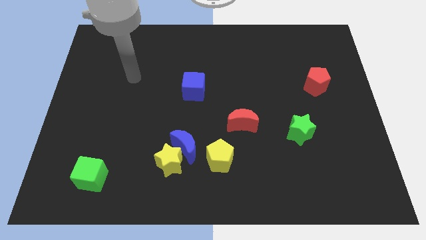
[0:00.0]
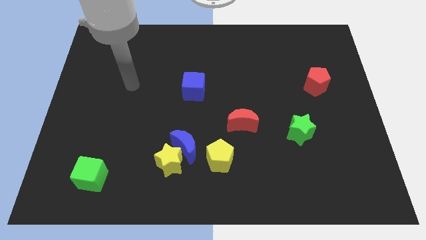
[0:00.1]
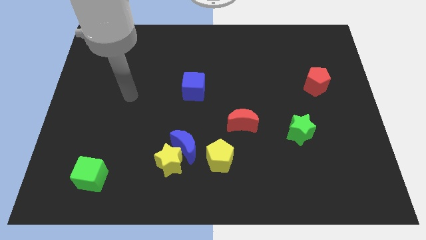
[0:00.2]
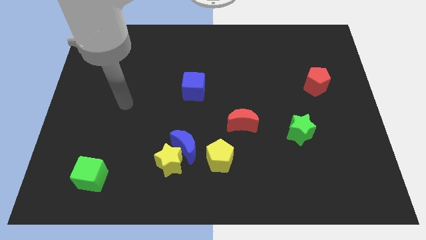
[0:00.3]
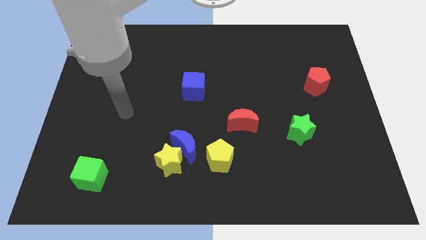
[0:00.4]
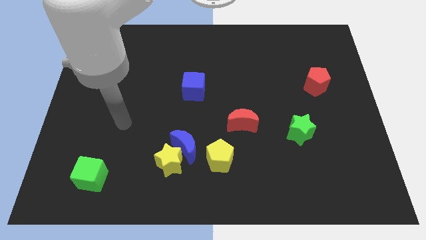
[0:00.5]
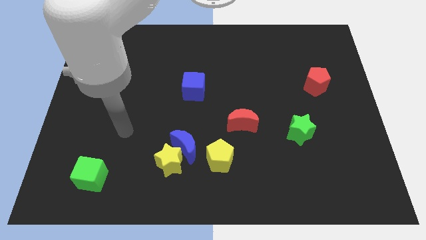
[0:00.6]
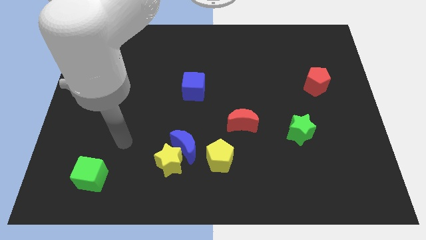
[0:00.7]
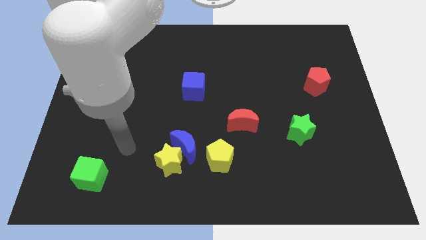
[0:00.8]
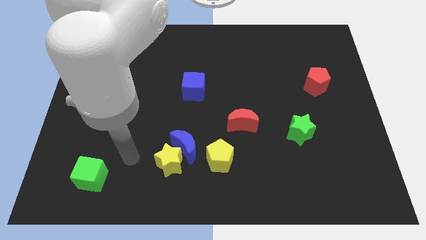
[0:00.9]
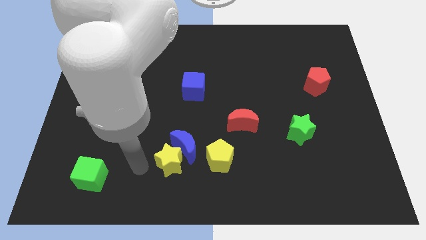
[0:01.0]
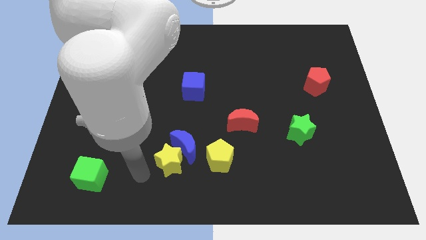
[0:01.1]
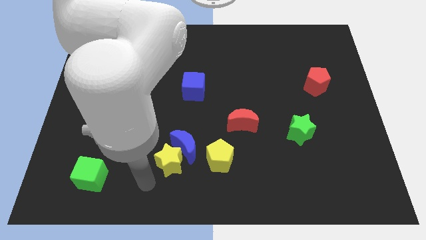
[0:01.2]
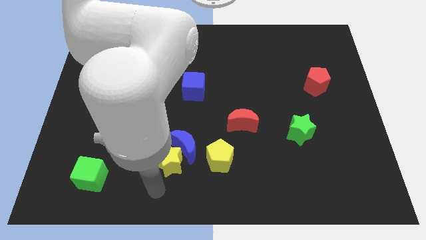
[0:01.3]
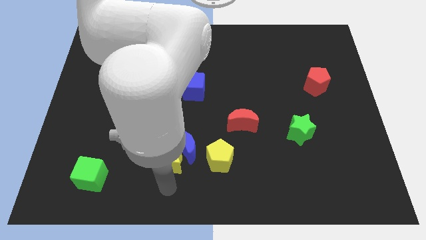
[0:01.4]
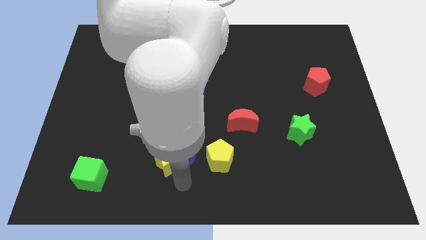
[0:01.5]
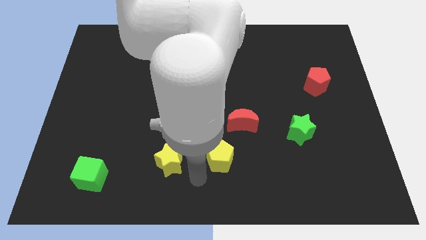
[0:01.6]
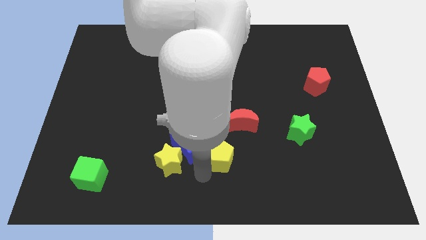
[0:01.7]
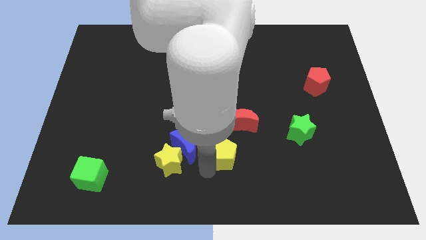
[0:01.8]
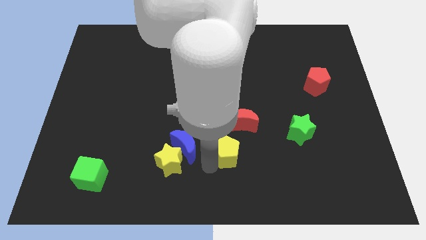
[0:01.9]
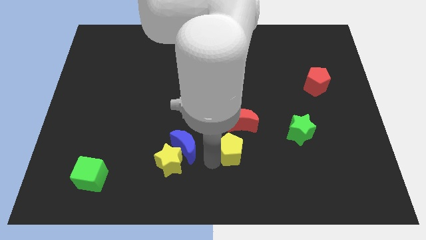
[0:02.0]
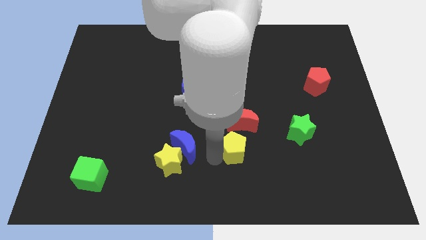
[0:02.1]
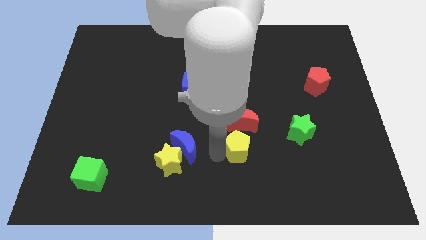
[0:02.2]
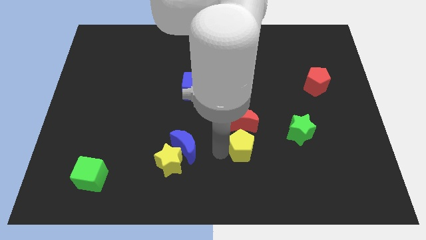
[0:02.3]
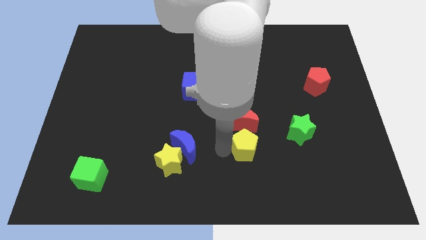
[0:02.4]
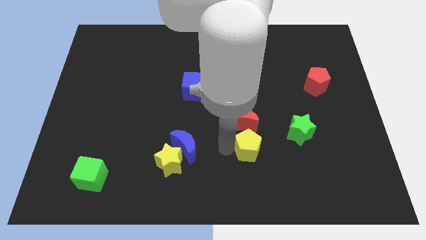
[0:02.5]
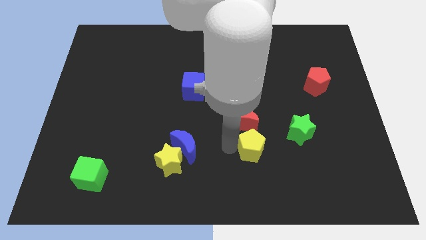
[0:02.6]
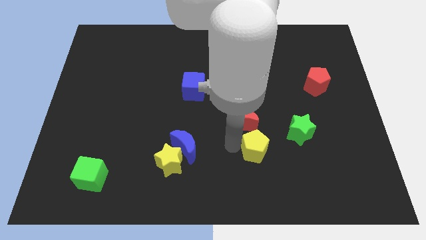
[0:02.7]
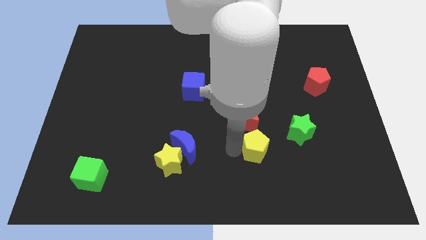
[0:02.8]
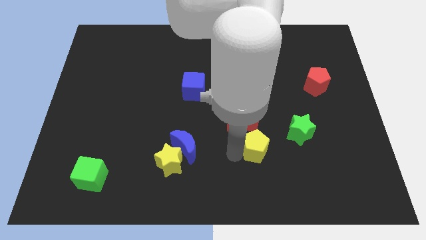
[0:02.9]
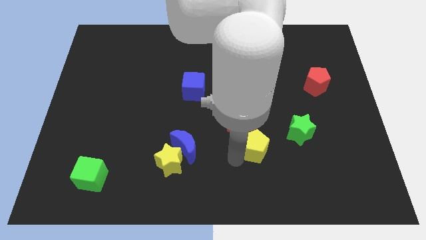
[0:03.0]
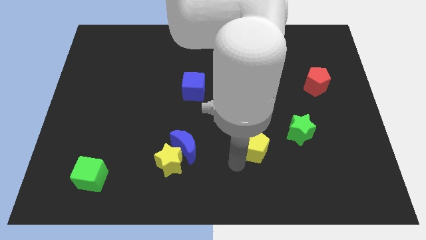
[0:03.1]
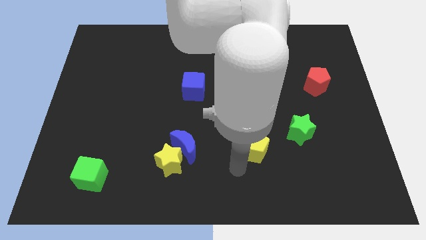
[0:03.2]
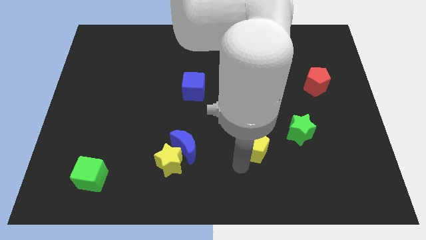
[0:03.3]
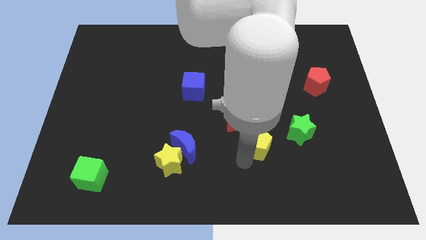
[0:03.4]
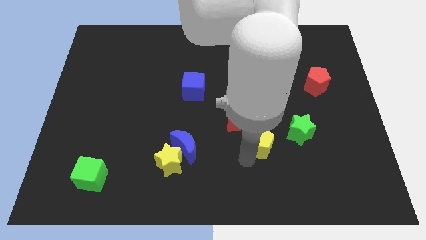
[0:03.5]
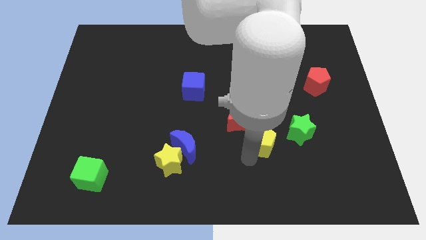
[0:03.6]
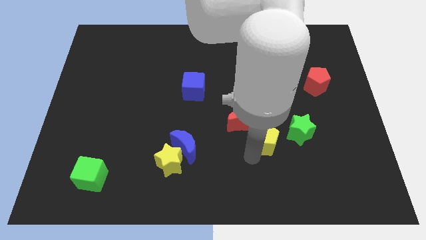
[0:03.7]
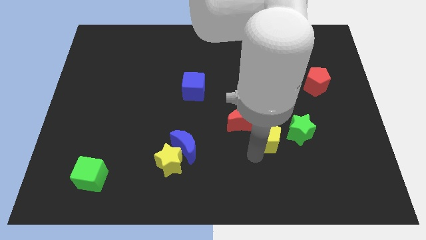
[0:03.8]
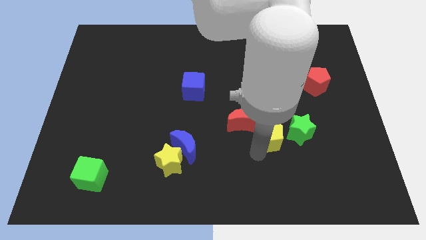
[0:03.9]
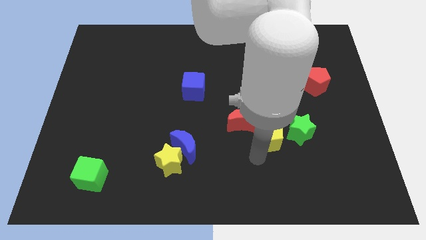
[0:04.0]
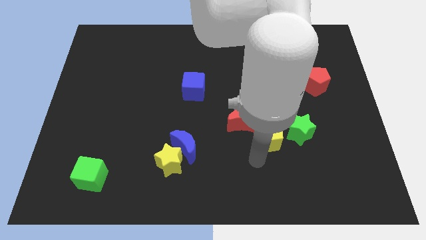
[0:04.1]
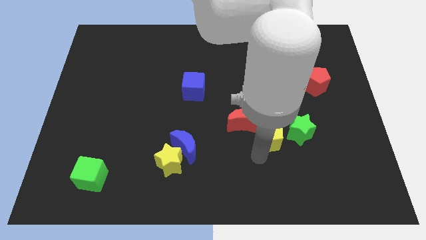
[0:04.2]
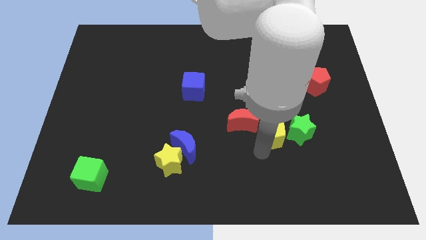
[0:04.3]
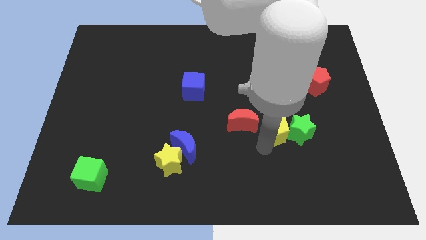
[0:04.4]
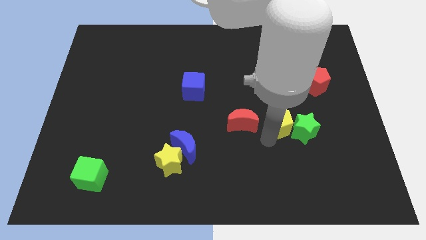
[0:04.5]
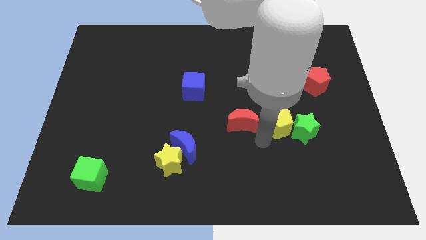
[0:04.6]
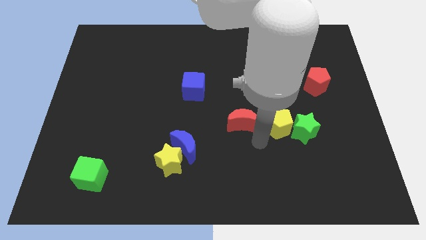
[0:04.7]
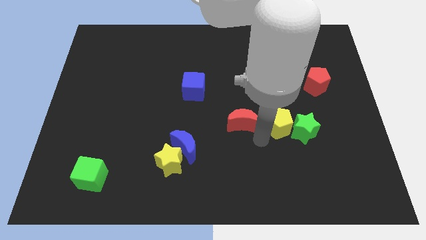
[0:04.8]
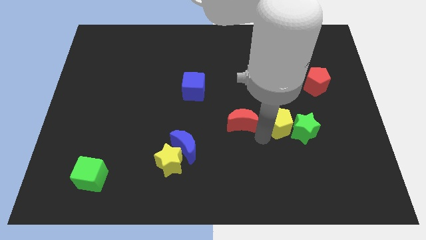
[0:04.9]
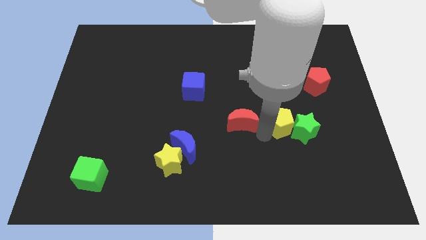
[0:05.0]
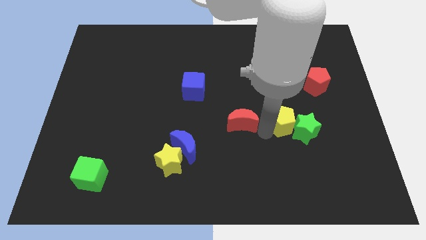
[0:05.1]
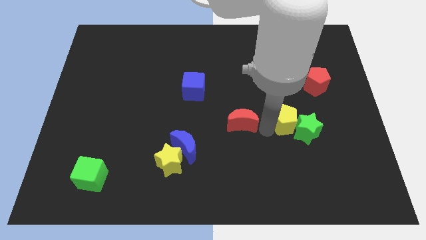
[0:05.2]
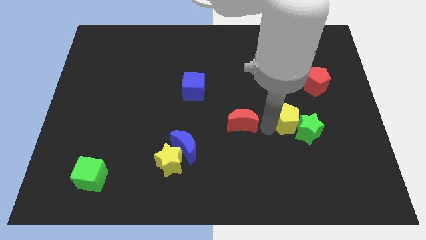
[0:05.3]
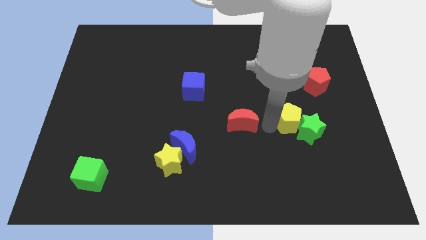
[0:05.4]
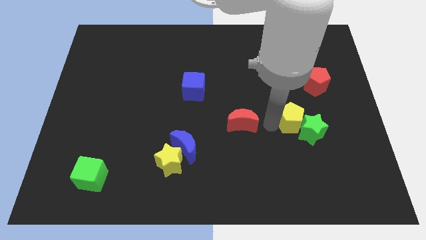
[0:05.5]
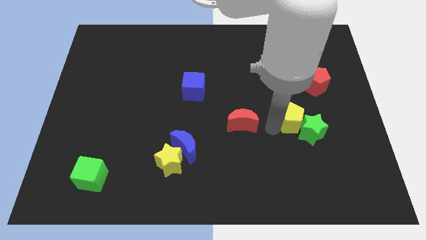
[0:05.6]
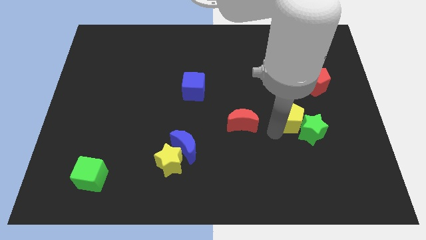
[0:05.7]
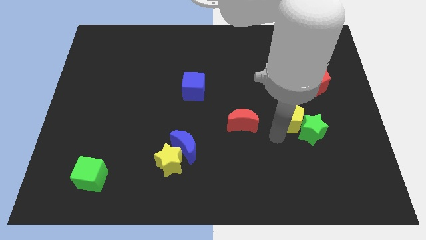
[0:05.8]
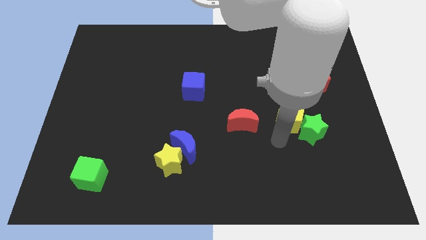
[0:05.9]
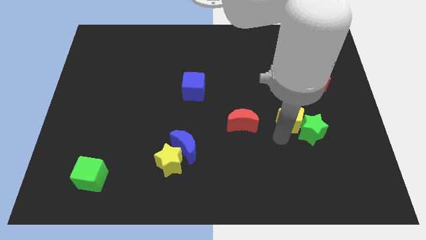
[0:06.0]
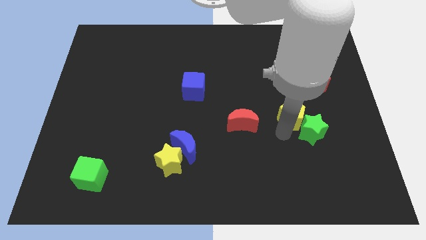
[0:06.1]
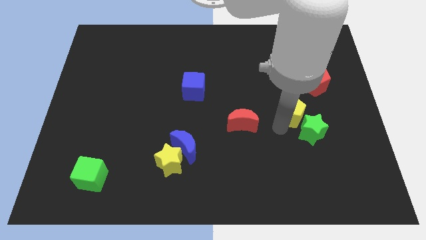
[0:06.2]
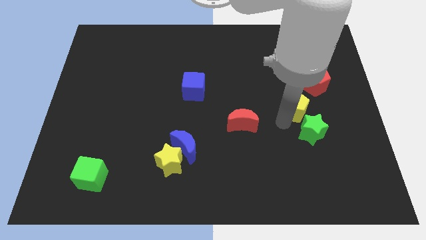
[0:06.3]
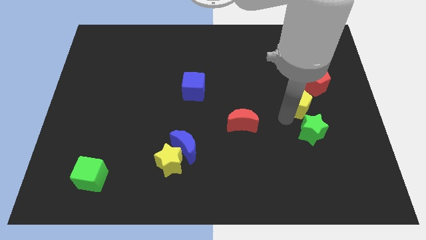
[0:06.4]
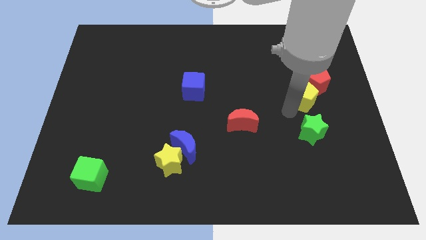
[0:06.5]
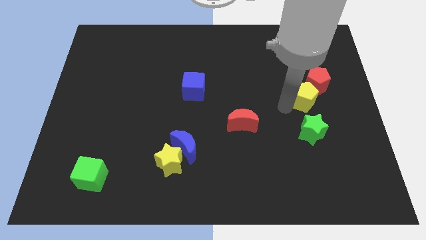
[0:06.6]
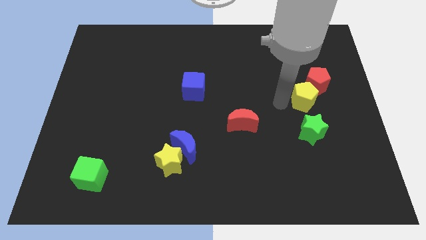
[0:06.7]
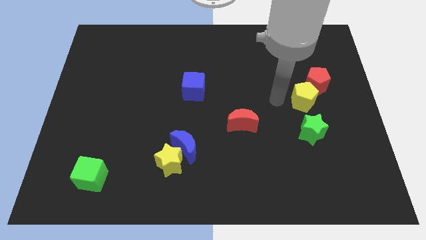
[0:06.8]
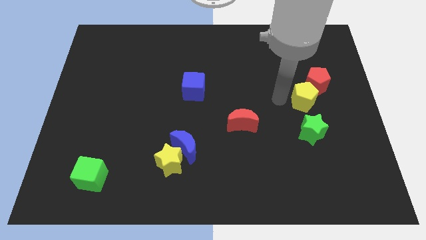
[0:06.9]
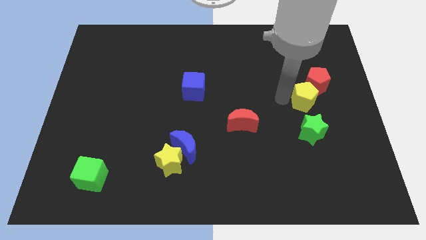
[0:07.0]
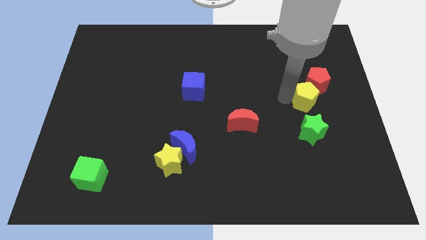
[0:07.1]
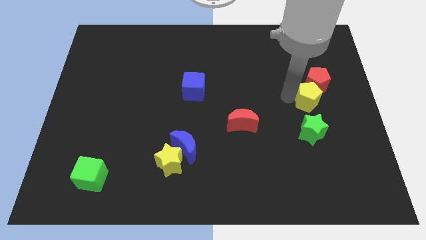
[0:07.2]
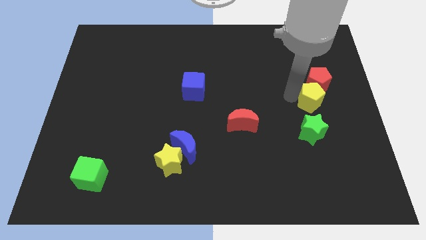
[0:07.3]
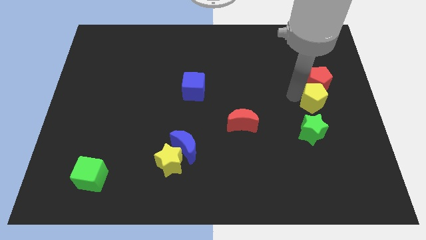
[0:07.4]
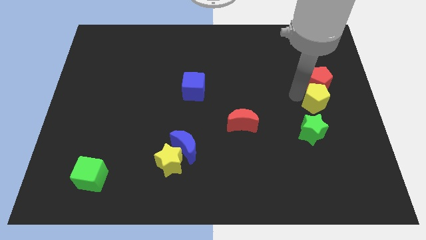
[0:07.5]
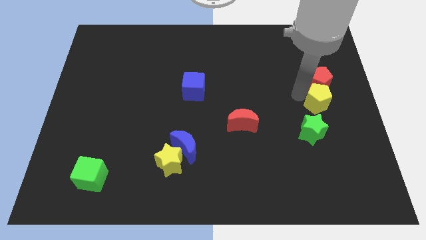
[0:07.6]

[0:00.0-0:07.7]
push the yellow pentagon to the right side of the board
